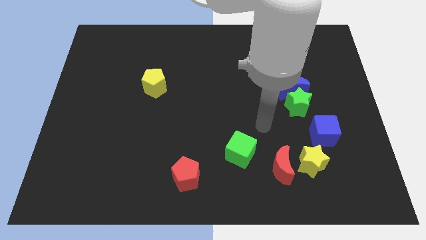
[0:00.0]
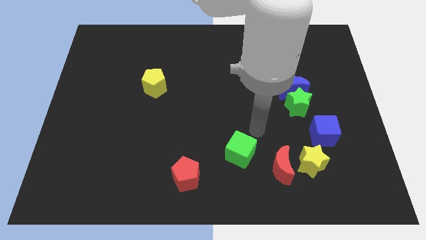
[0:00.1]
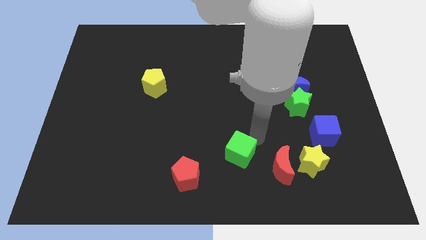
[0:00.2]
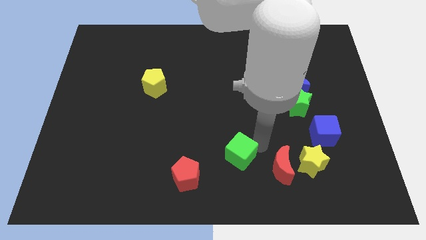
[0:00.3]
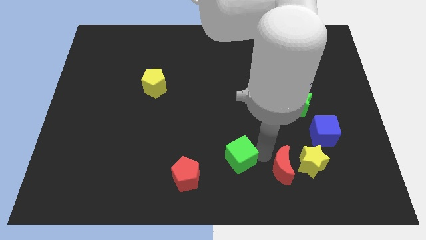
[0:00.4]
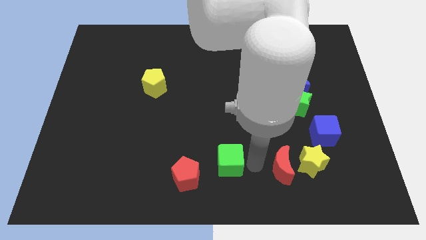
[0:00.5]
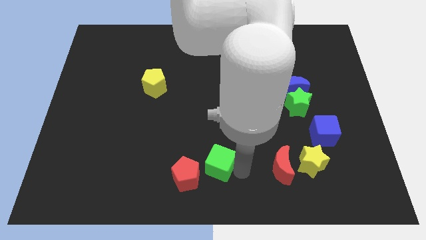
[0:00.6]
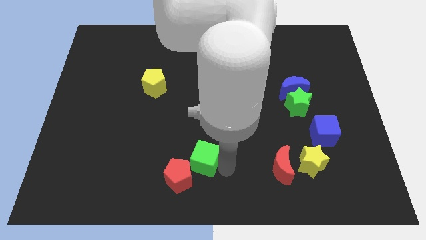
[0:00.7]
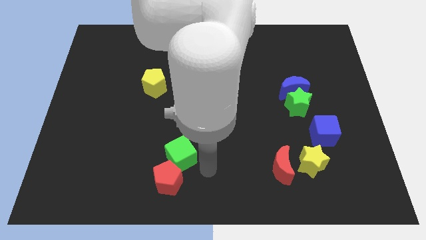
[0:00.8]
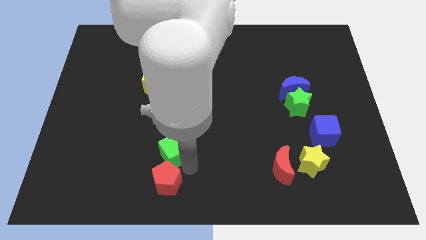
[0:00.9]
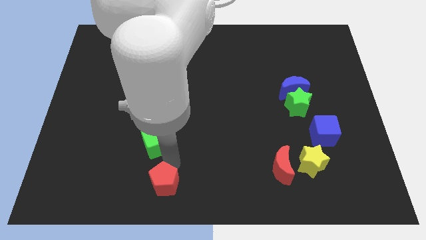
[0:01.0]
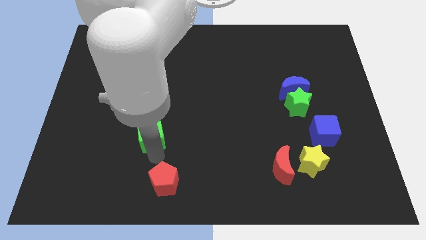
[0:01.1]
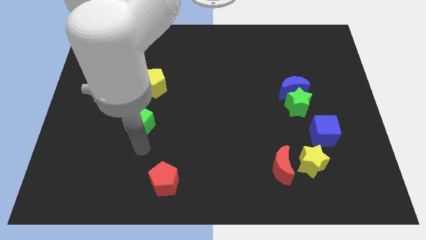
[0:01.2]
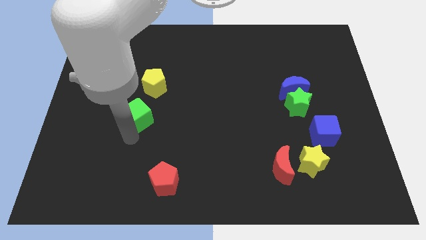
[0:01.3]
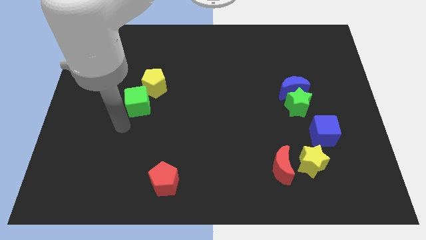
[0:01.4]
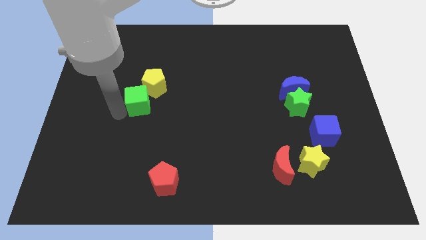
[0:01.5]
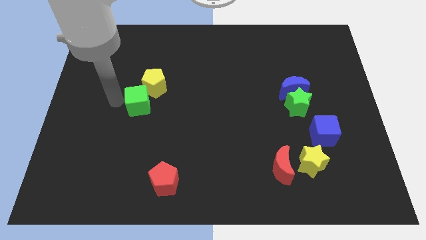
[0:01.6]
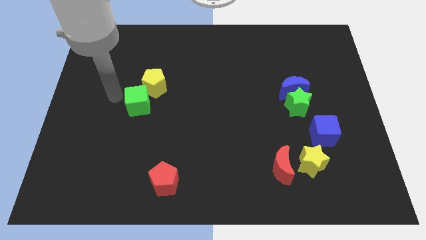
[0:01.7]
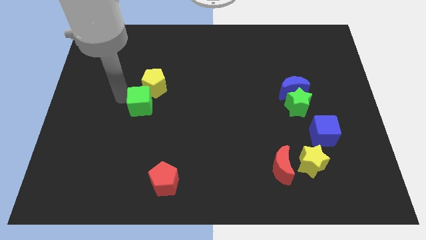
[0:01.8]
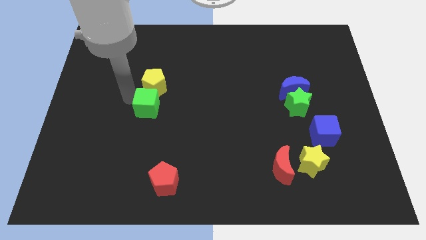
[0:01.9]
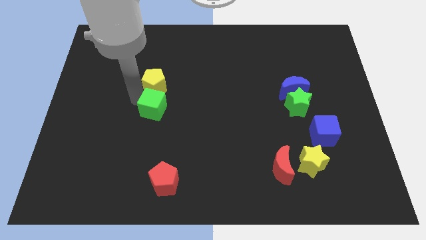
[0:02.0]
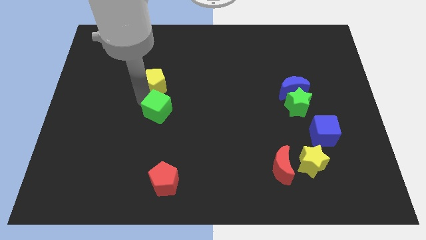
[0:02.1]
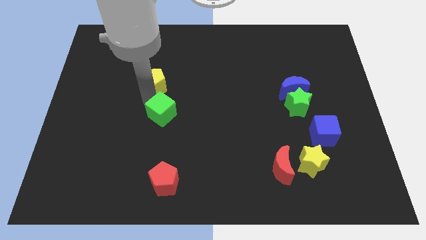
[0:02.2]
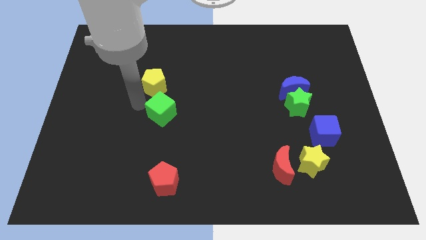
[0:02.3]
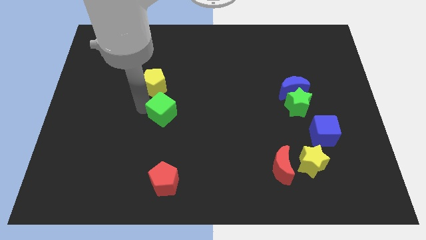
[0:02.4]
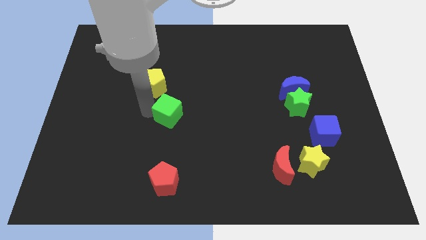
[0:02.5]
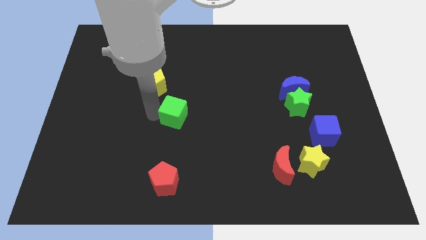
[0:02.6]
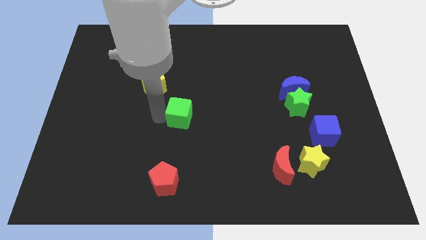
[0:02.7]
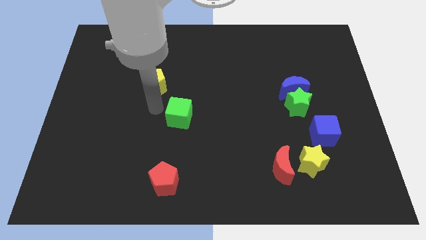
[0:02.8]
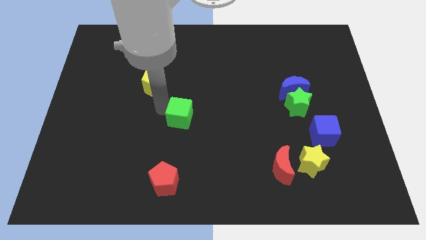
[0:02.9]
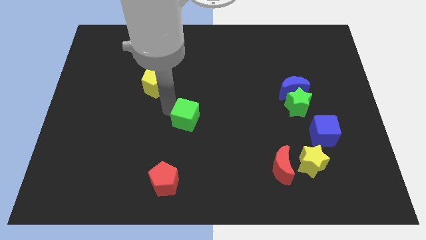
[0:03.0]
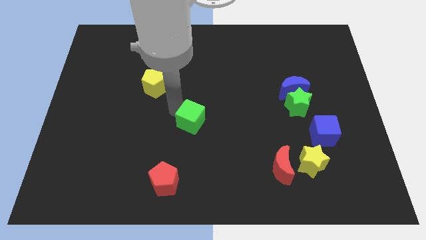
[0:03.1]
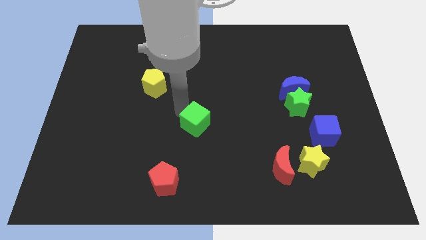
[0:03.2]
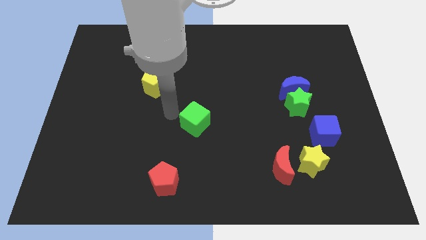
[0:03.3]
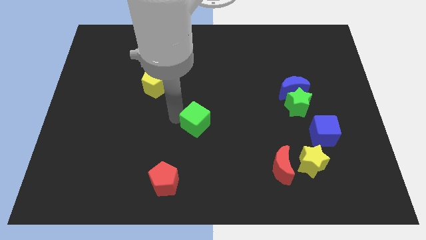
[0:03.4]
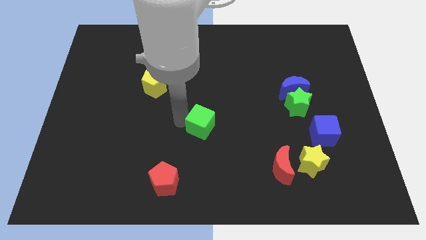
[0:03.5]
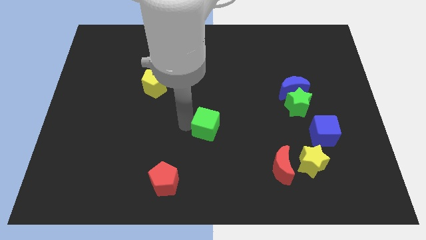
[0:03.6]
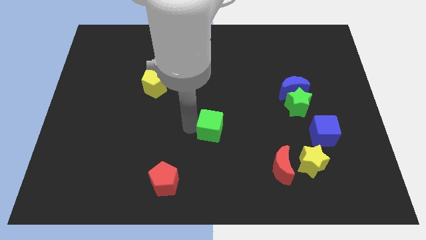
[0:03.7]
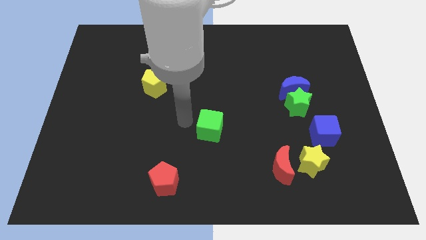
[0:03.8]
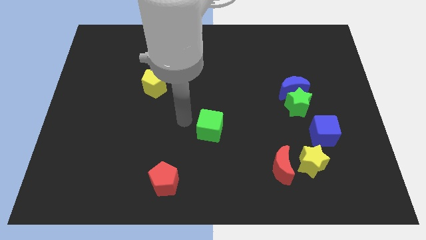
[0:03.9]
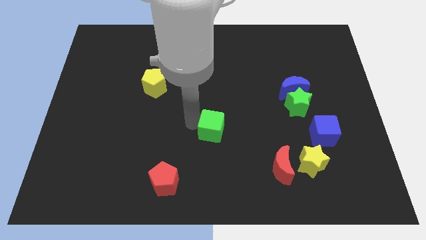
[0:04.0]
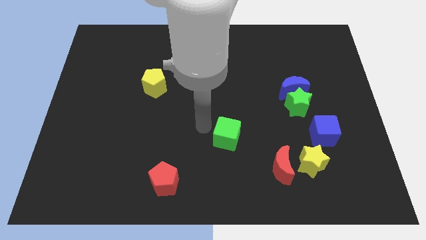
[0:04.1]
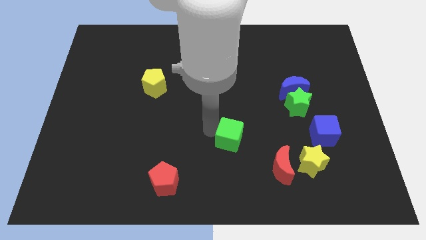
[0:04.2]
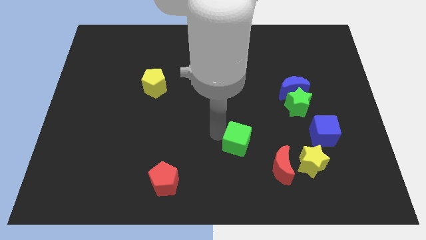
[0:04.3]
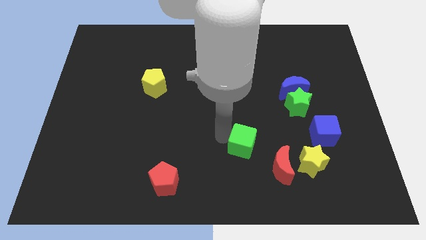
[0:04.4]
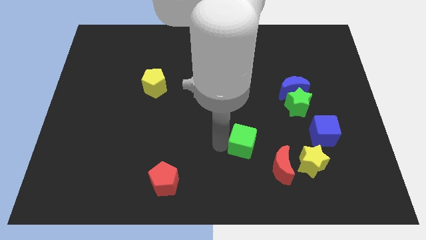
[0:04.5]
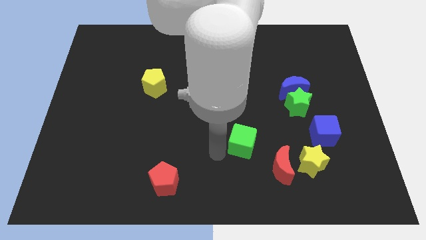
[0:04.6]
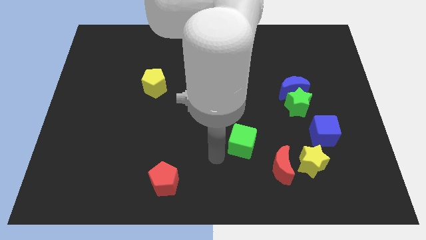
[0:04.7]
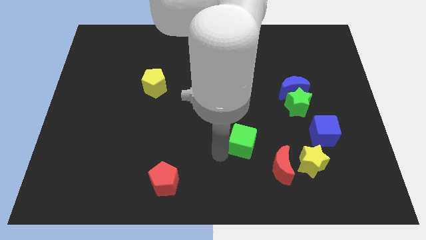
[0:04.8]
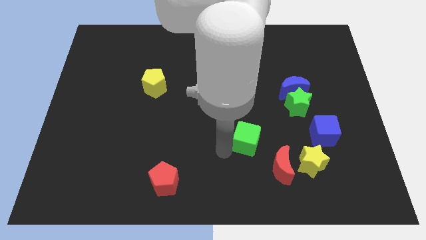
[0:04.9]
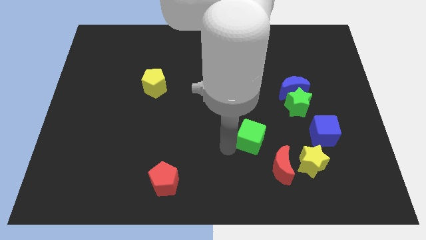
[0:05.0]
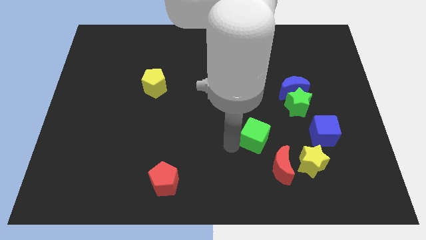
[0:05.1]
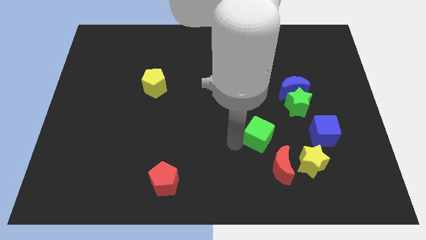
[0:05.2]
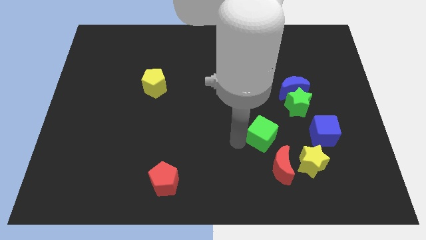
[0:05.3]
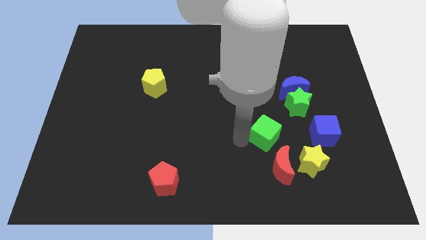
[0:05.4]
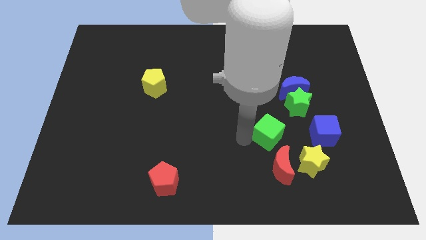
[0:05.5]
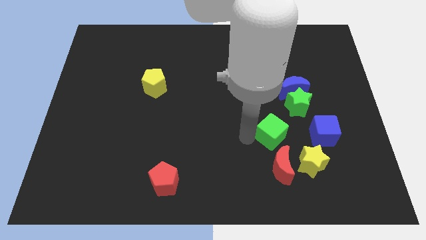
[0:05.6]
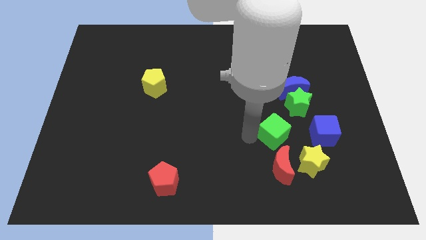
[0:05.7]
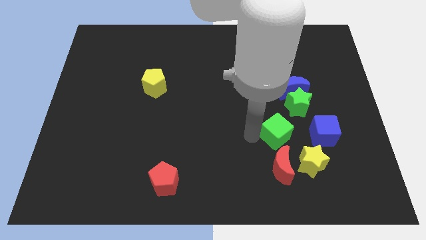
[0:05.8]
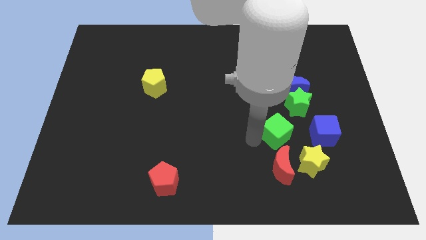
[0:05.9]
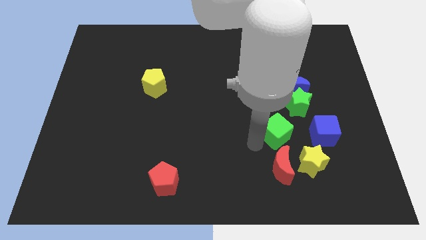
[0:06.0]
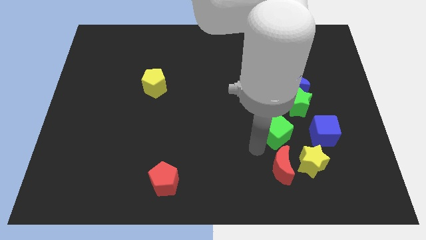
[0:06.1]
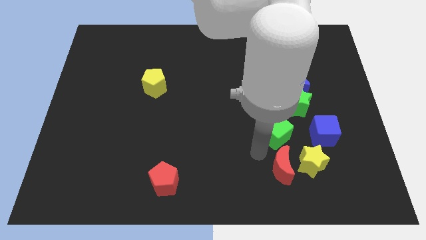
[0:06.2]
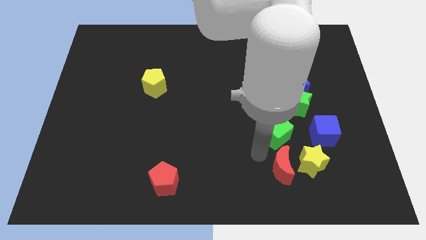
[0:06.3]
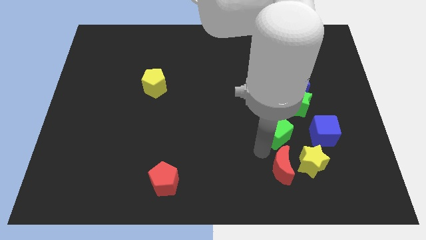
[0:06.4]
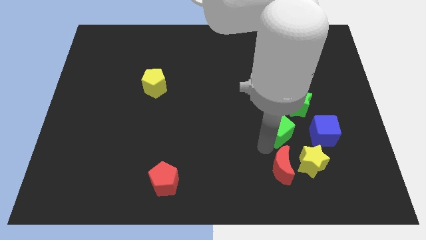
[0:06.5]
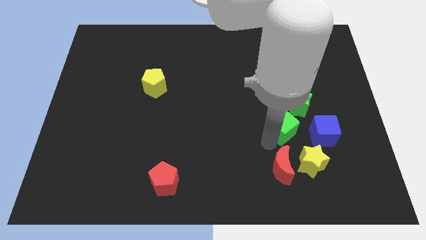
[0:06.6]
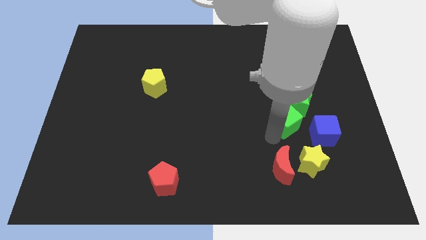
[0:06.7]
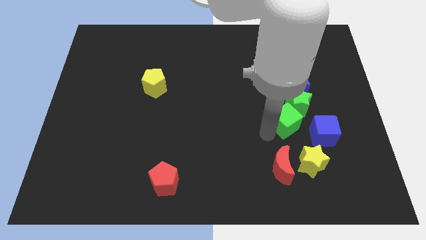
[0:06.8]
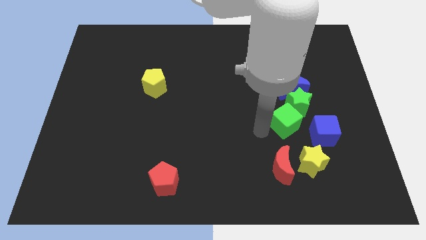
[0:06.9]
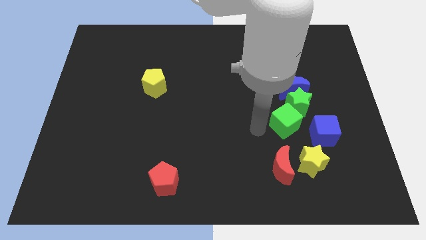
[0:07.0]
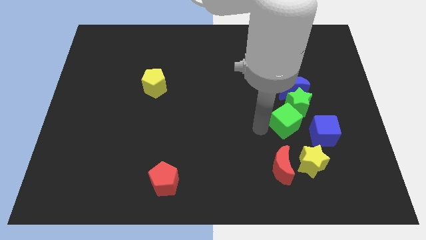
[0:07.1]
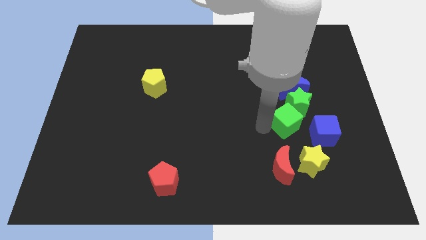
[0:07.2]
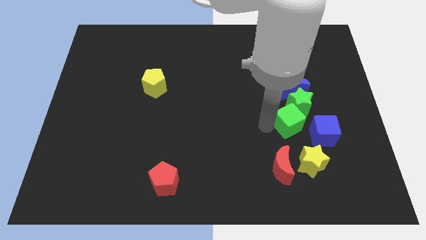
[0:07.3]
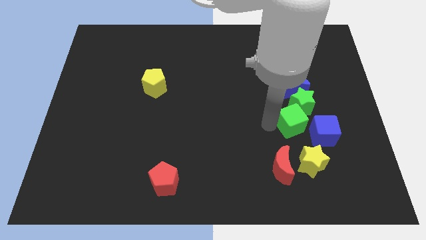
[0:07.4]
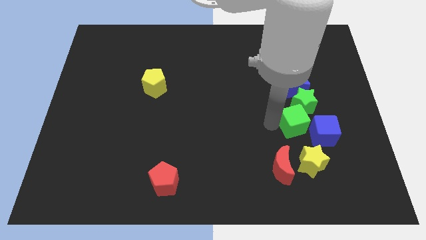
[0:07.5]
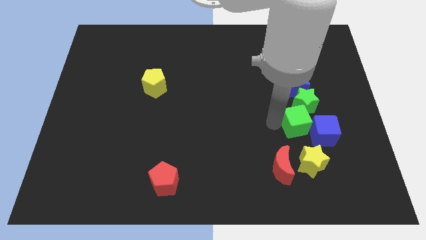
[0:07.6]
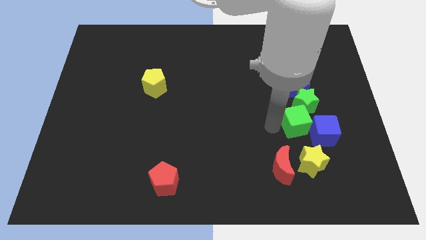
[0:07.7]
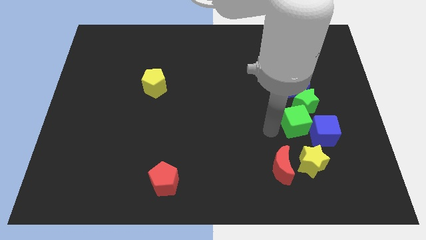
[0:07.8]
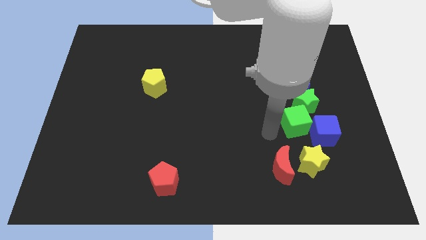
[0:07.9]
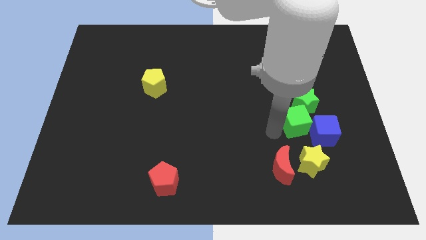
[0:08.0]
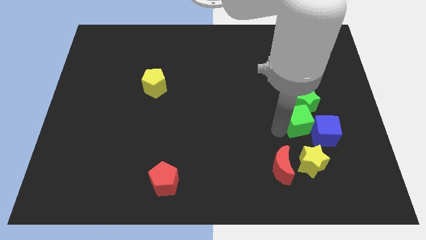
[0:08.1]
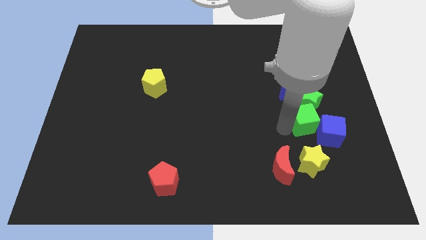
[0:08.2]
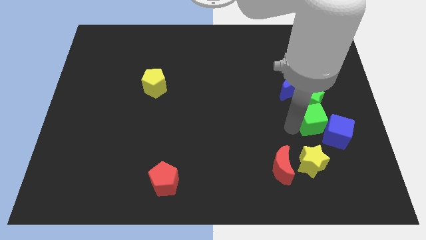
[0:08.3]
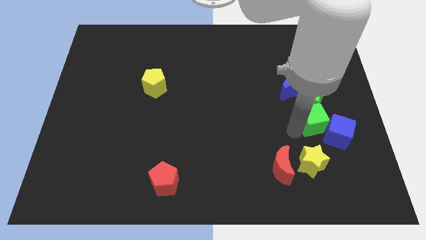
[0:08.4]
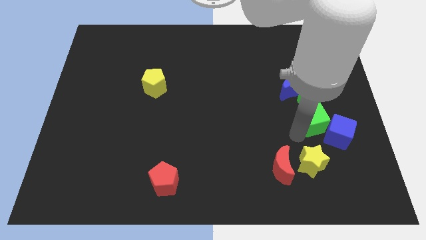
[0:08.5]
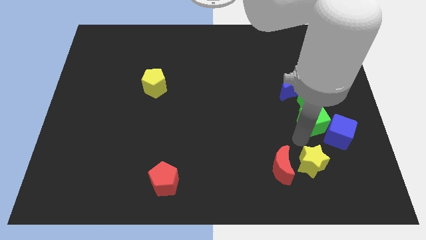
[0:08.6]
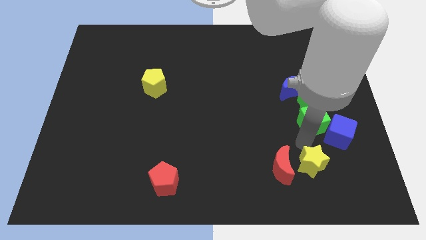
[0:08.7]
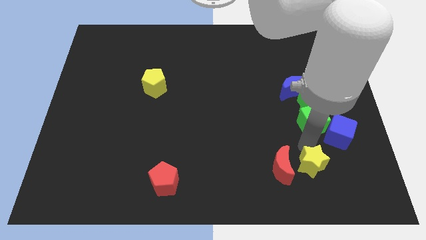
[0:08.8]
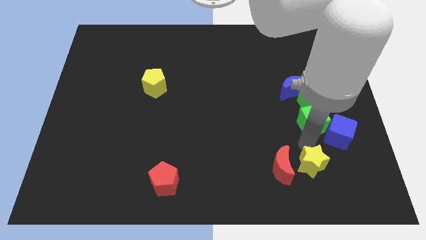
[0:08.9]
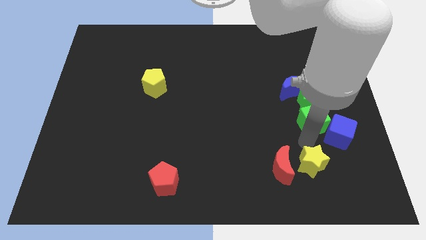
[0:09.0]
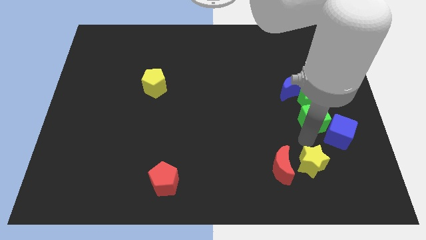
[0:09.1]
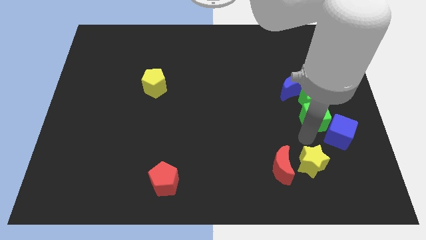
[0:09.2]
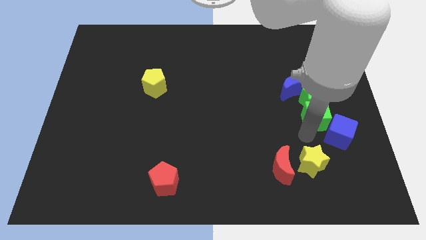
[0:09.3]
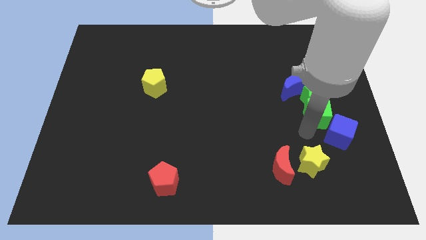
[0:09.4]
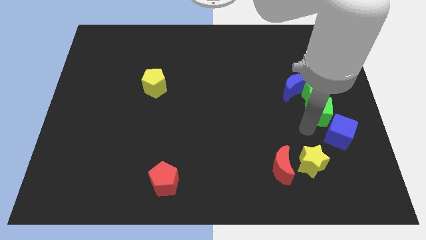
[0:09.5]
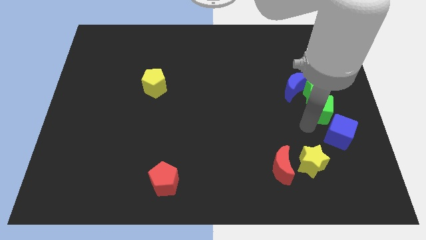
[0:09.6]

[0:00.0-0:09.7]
push the green cube up and to the right
